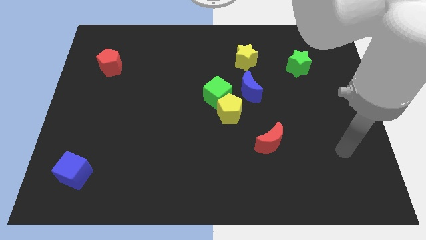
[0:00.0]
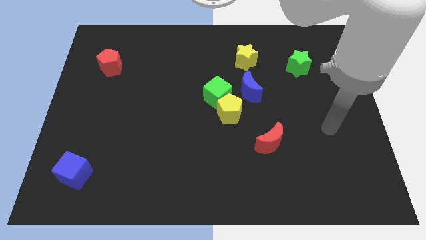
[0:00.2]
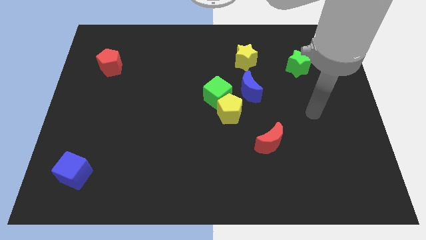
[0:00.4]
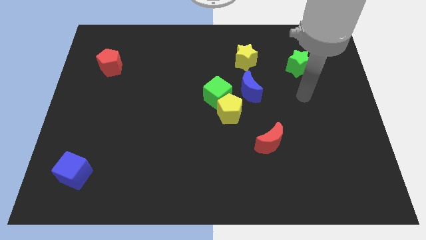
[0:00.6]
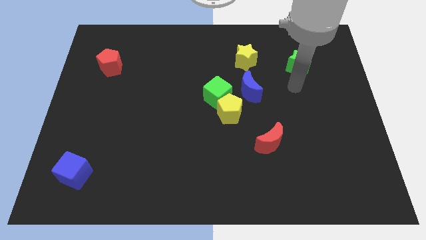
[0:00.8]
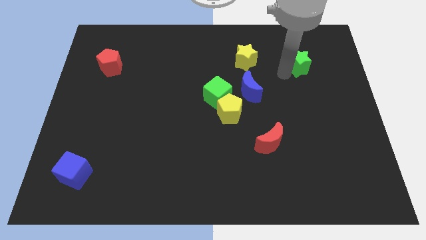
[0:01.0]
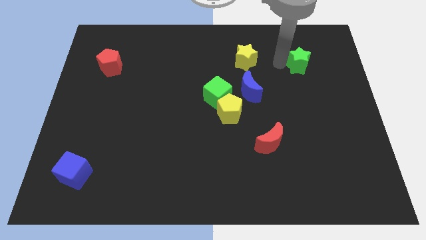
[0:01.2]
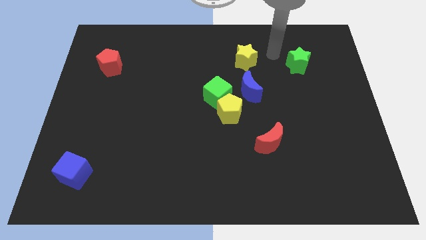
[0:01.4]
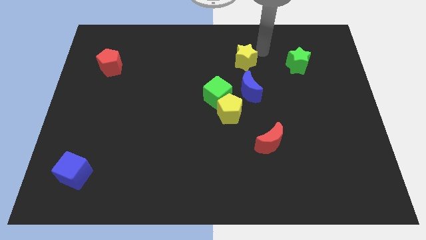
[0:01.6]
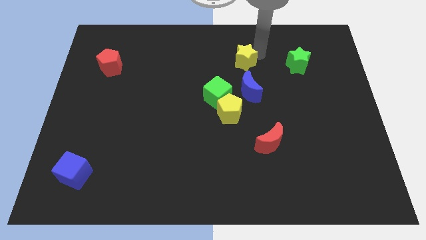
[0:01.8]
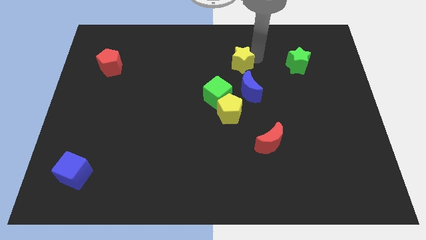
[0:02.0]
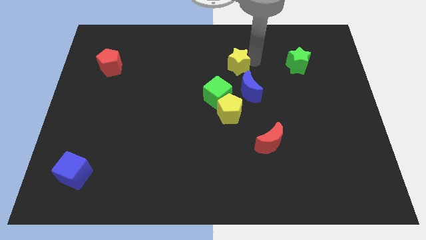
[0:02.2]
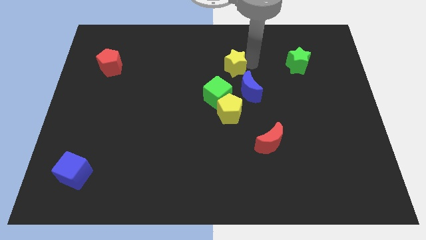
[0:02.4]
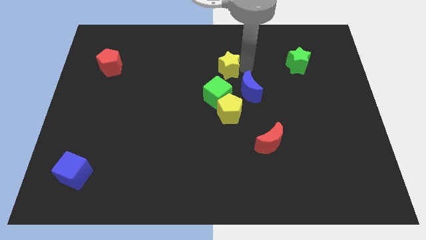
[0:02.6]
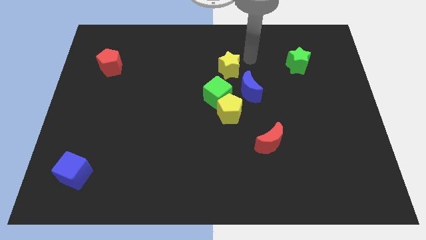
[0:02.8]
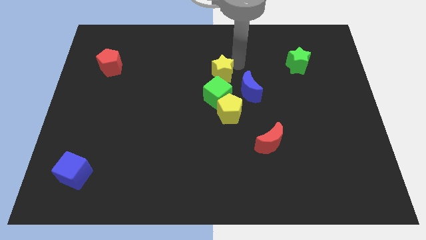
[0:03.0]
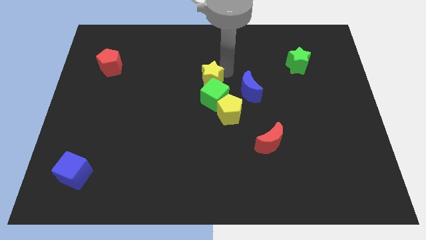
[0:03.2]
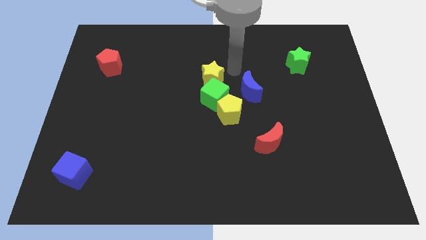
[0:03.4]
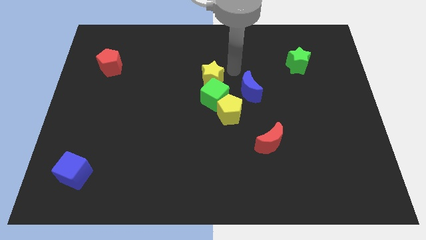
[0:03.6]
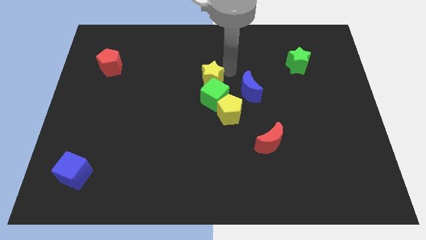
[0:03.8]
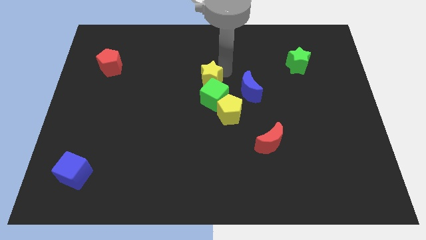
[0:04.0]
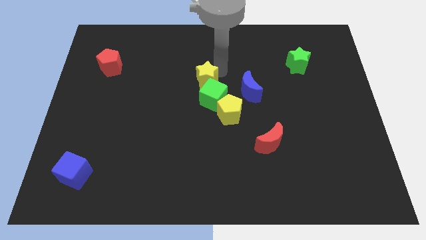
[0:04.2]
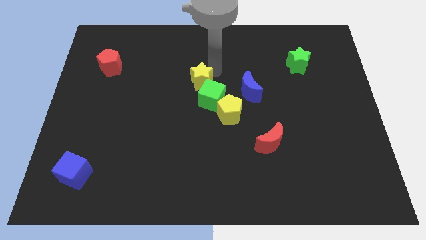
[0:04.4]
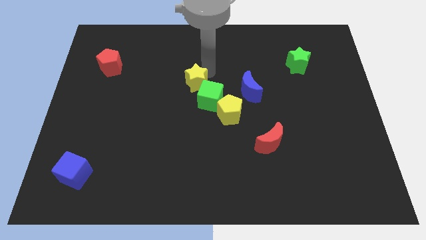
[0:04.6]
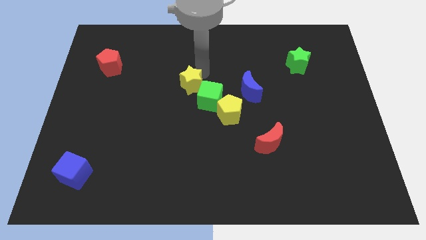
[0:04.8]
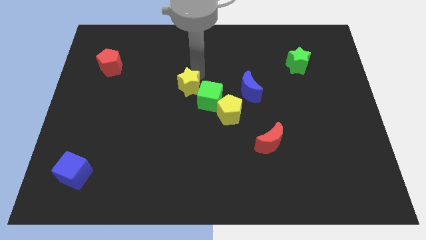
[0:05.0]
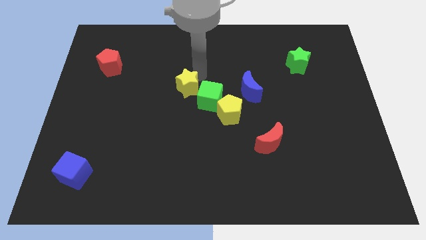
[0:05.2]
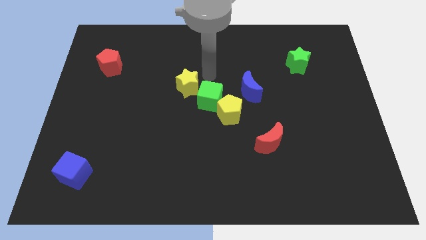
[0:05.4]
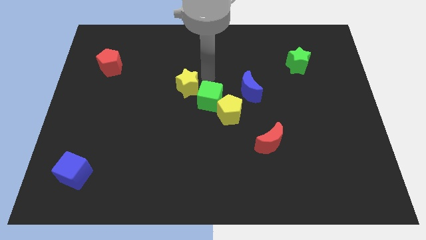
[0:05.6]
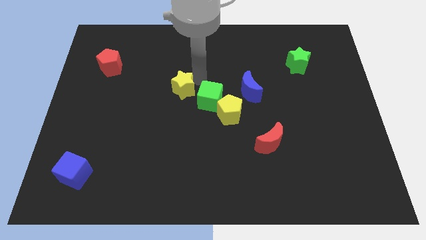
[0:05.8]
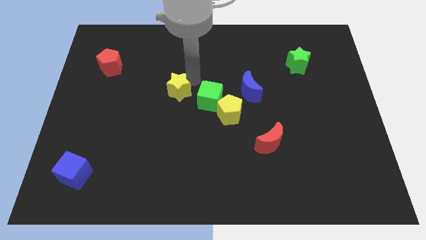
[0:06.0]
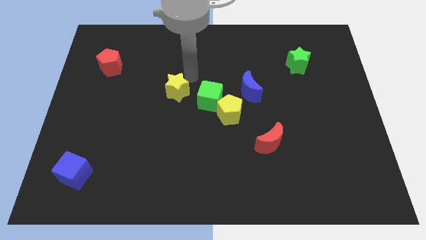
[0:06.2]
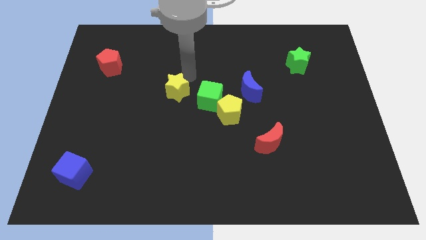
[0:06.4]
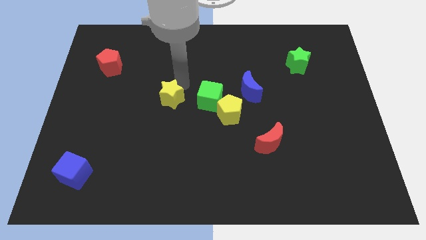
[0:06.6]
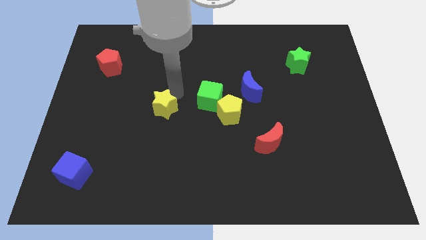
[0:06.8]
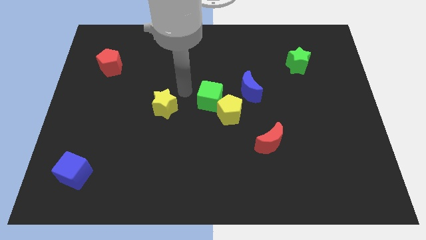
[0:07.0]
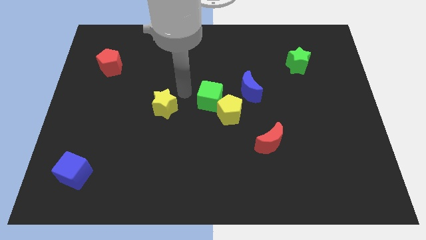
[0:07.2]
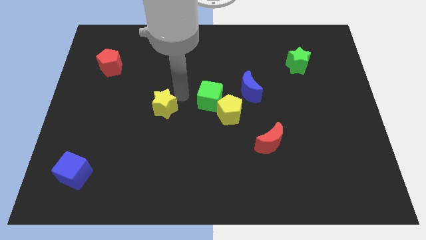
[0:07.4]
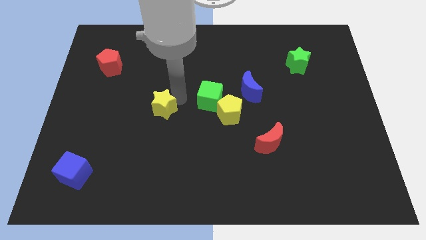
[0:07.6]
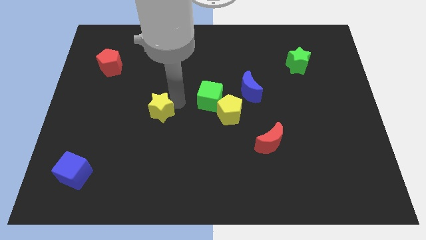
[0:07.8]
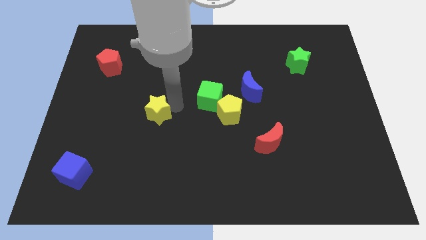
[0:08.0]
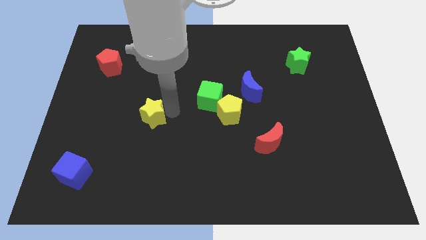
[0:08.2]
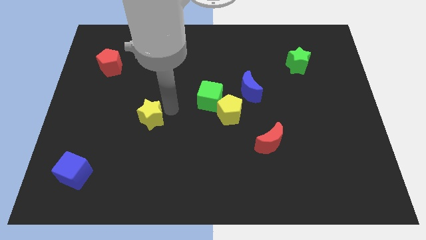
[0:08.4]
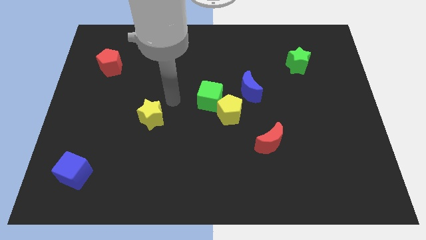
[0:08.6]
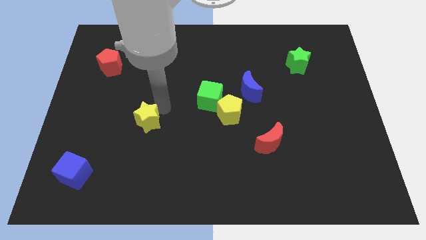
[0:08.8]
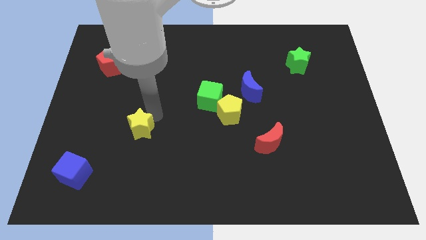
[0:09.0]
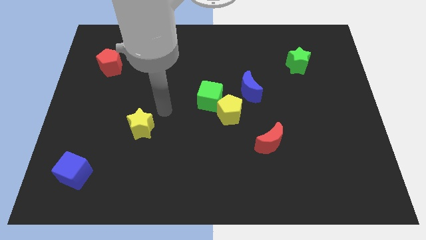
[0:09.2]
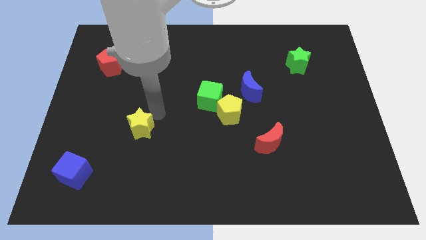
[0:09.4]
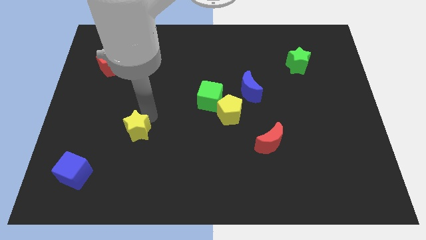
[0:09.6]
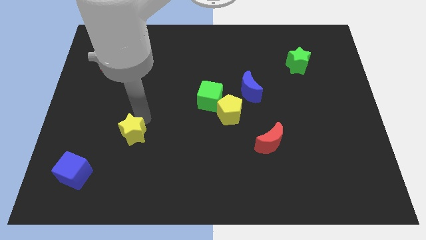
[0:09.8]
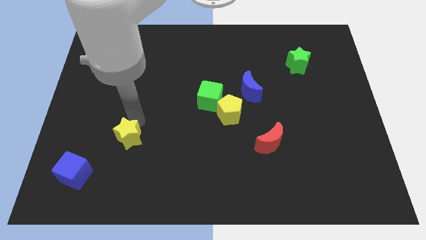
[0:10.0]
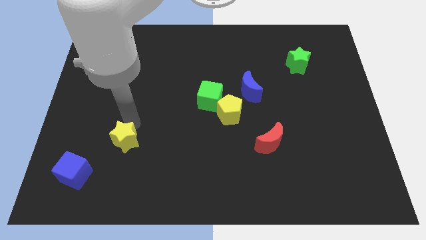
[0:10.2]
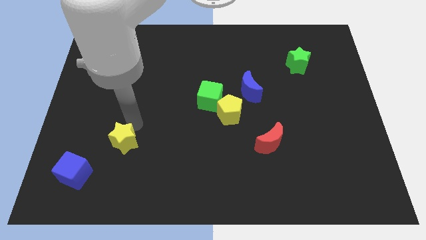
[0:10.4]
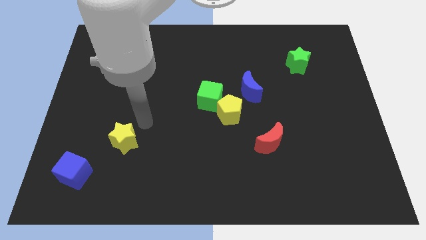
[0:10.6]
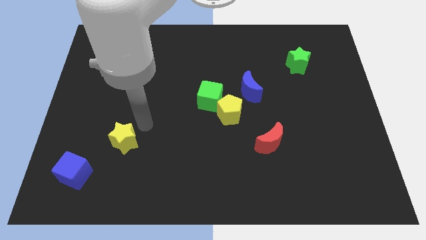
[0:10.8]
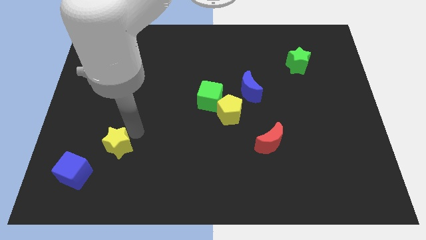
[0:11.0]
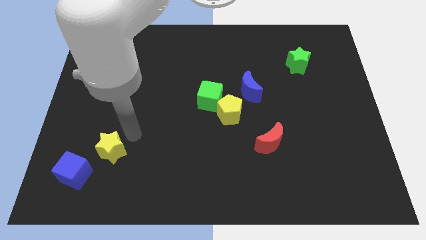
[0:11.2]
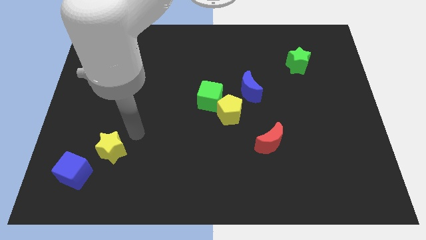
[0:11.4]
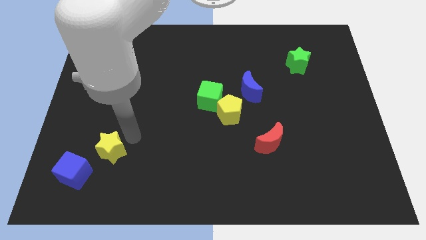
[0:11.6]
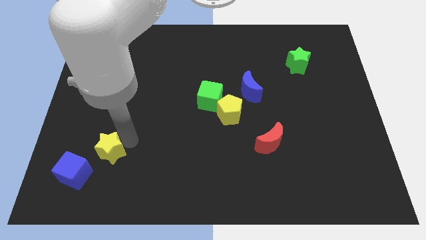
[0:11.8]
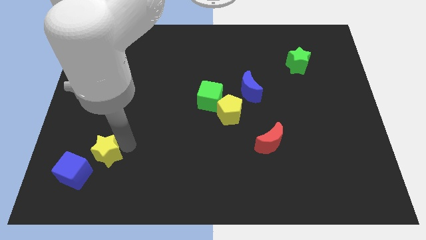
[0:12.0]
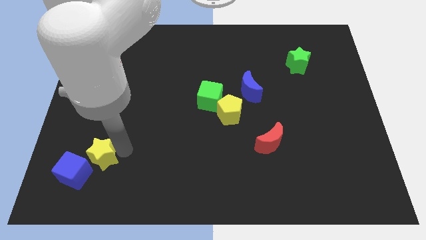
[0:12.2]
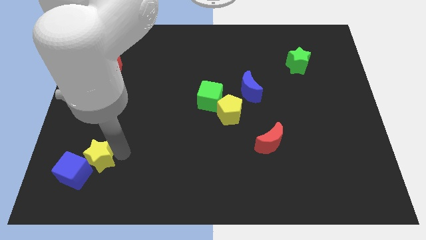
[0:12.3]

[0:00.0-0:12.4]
move the yellow star to the blue cube

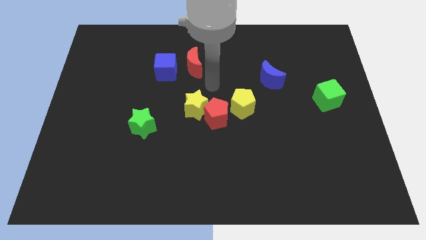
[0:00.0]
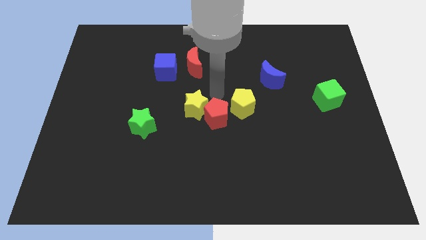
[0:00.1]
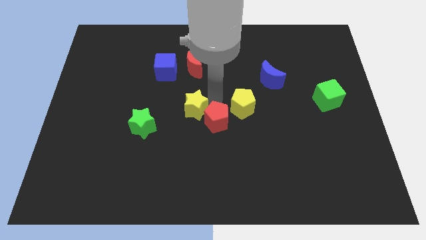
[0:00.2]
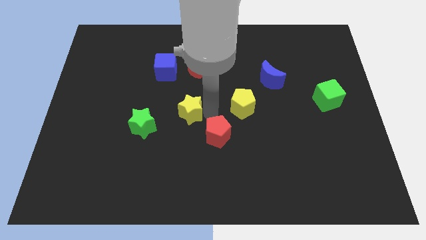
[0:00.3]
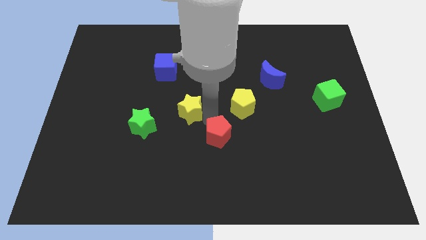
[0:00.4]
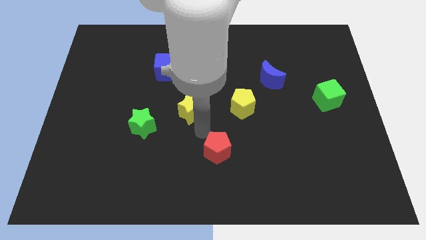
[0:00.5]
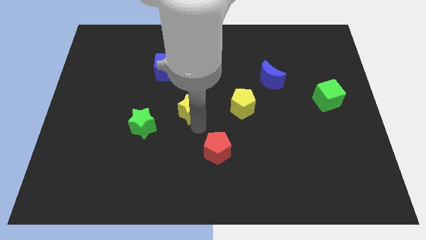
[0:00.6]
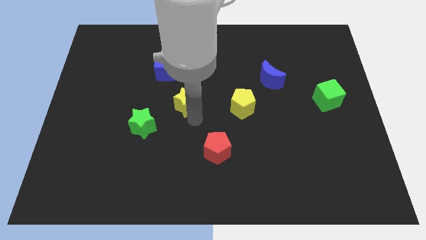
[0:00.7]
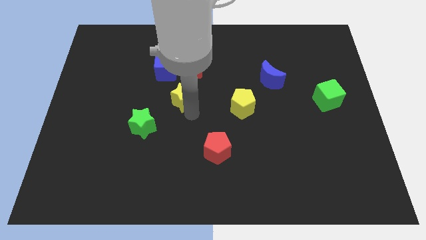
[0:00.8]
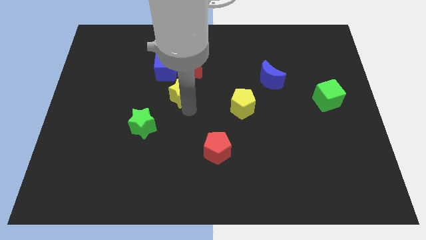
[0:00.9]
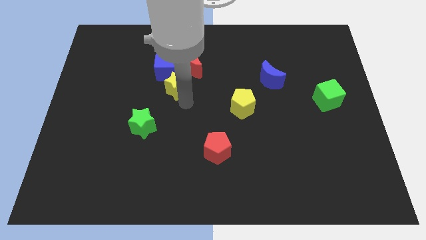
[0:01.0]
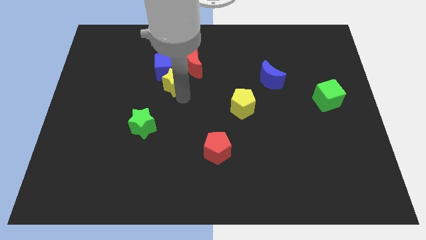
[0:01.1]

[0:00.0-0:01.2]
push the yellow star next to the blue cube
